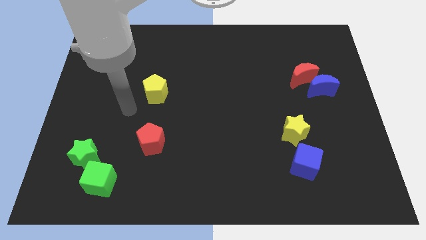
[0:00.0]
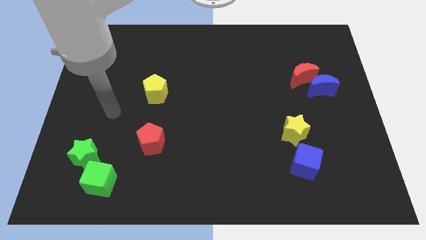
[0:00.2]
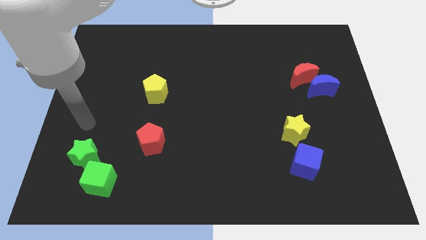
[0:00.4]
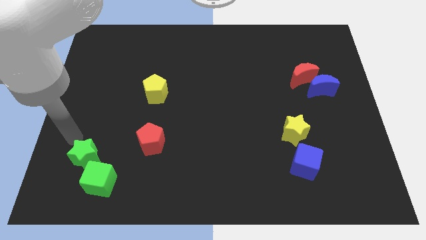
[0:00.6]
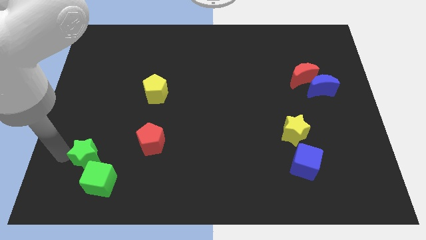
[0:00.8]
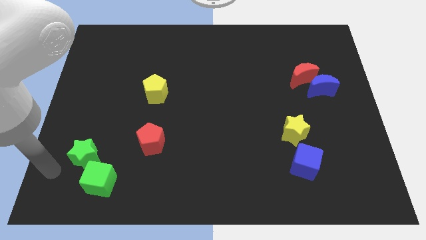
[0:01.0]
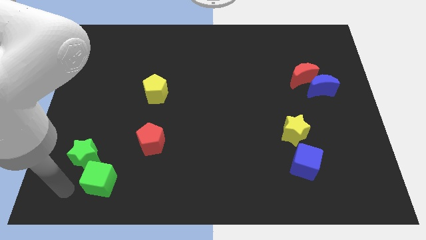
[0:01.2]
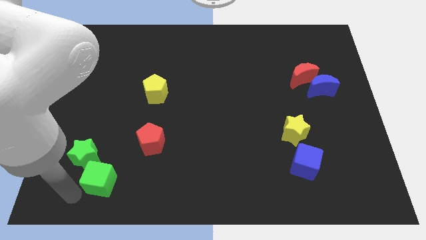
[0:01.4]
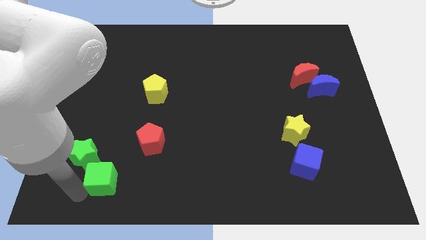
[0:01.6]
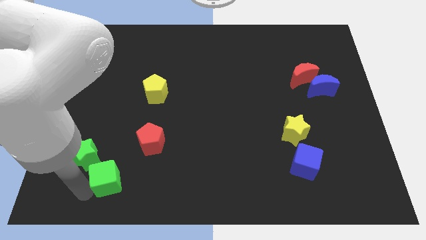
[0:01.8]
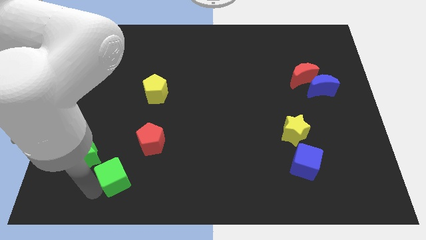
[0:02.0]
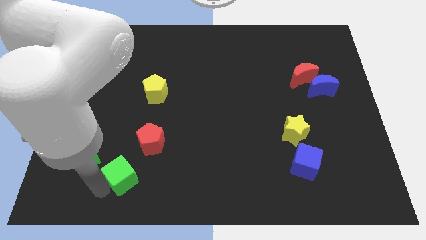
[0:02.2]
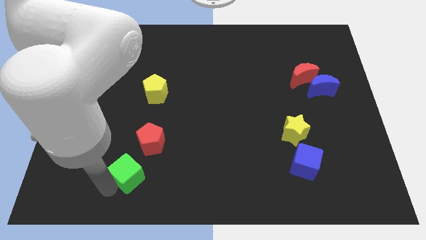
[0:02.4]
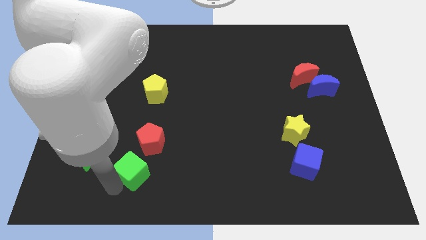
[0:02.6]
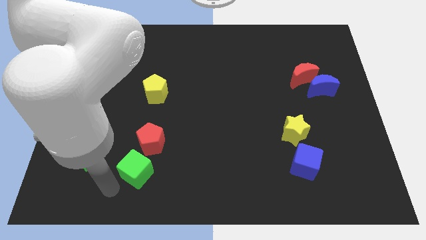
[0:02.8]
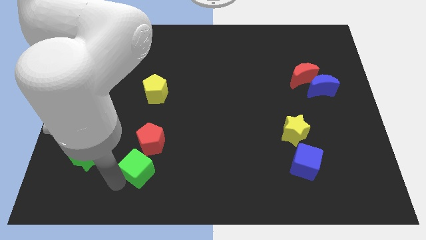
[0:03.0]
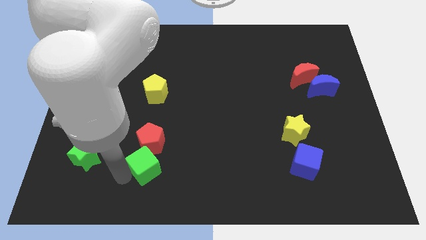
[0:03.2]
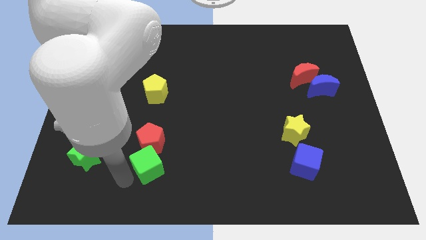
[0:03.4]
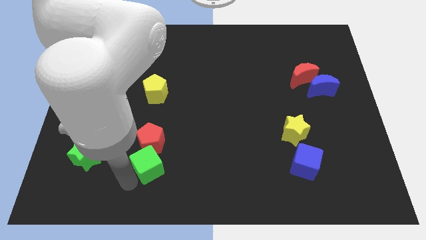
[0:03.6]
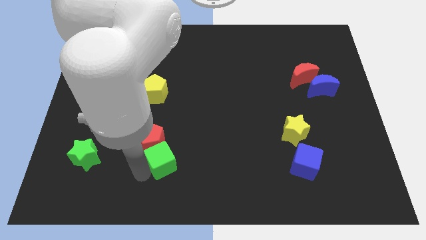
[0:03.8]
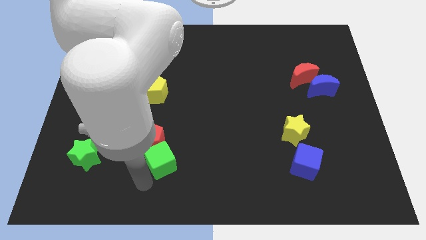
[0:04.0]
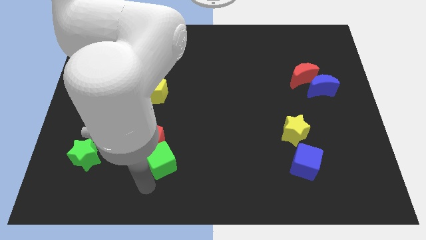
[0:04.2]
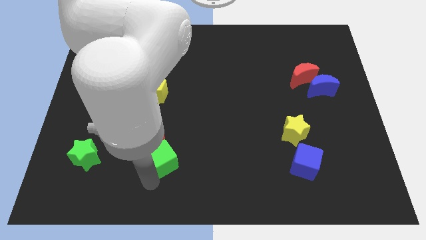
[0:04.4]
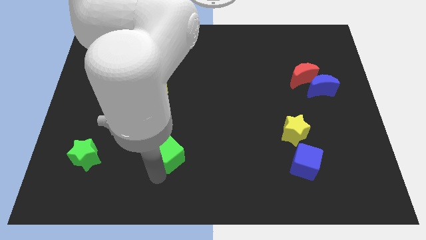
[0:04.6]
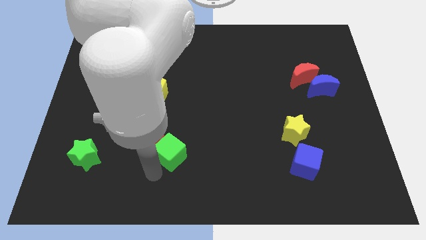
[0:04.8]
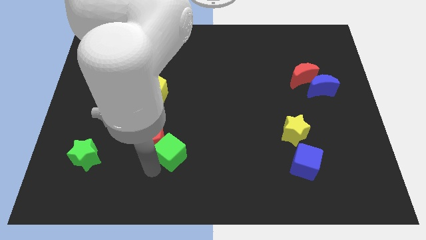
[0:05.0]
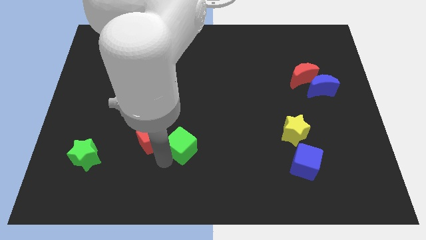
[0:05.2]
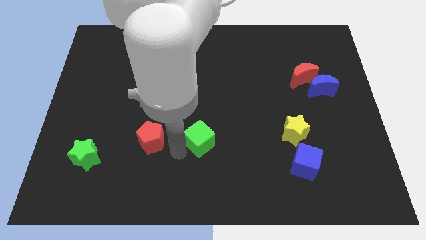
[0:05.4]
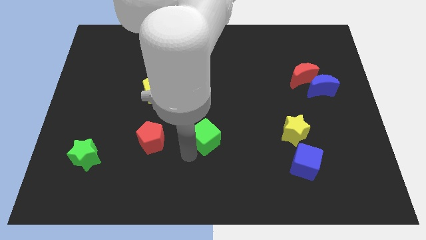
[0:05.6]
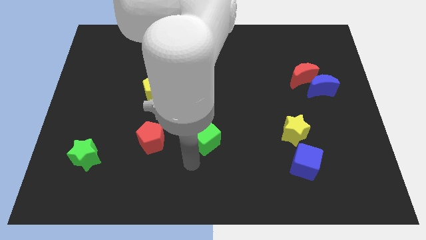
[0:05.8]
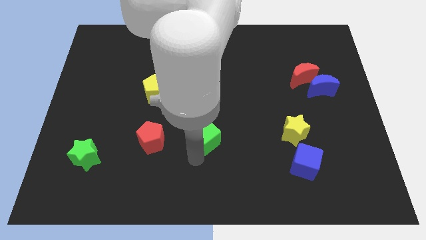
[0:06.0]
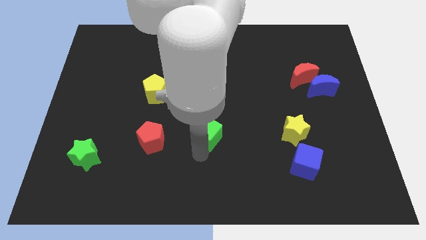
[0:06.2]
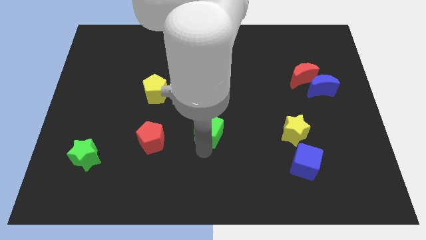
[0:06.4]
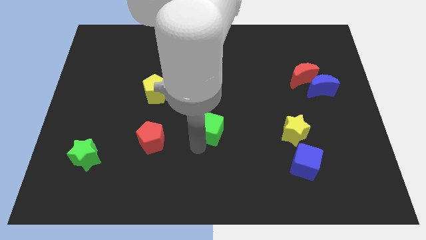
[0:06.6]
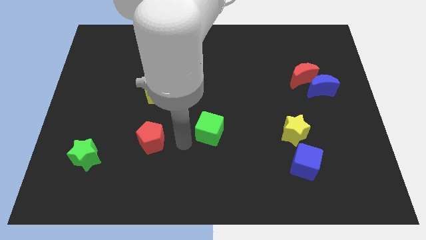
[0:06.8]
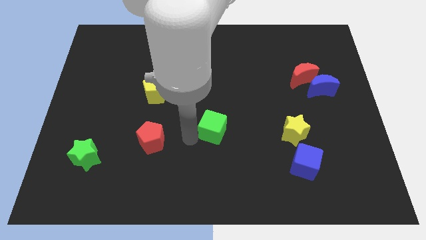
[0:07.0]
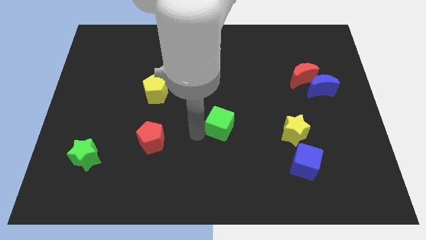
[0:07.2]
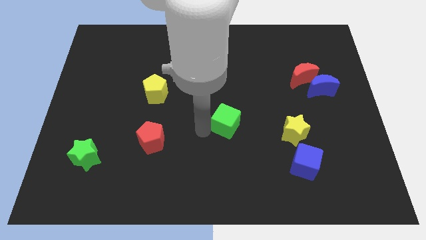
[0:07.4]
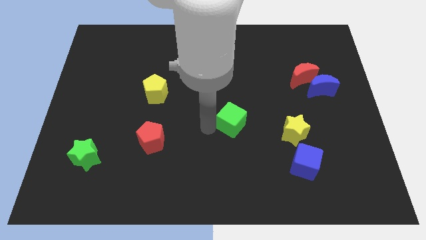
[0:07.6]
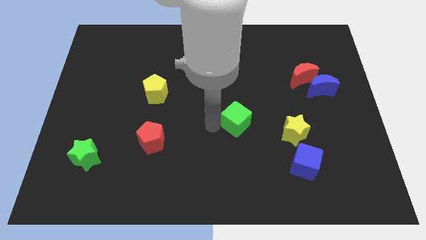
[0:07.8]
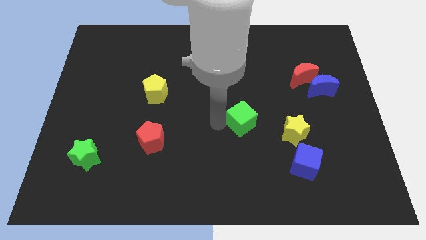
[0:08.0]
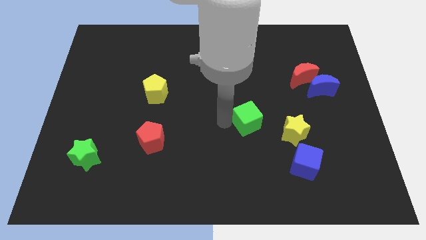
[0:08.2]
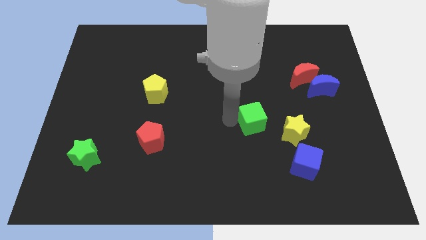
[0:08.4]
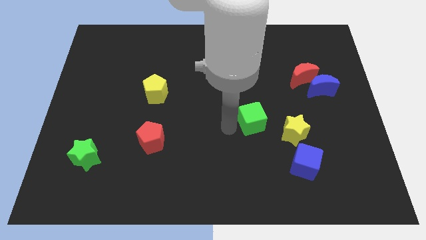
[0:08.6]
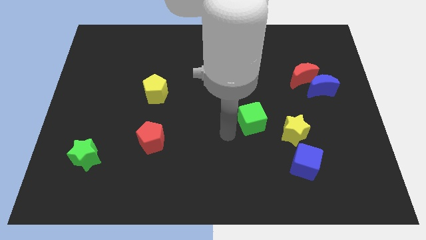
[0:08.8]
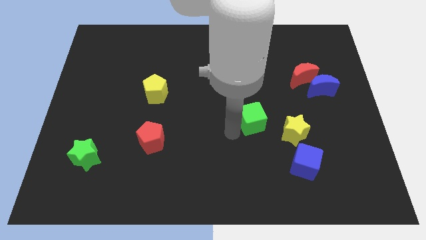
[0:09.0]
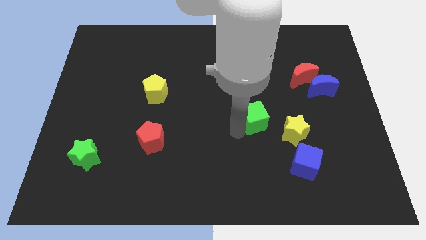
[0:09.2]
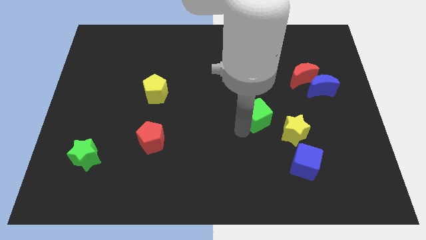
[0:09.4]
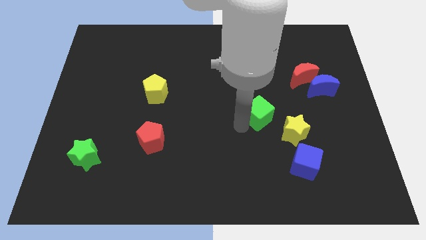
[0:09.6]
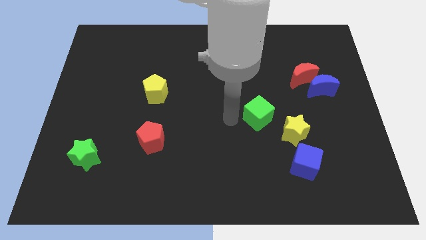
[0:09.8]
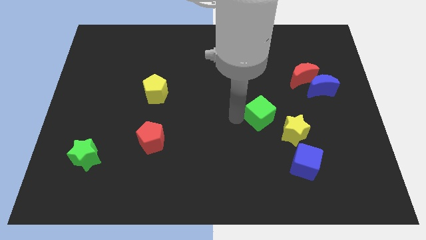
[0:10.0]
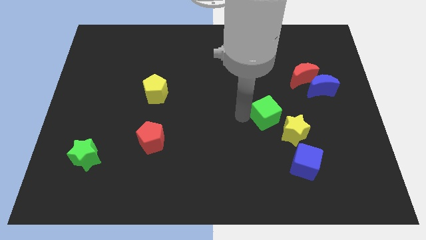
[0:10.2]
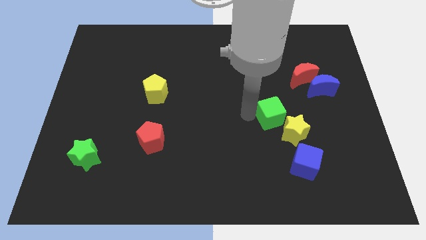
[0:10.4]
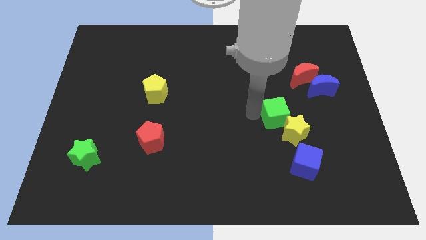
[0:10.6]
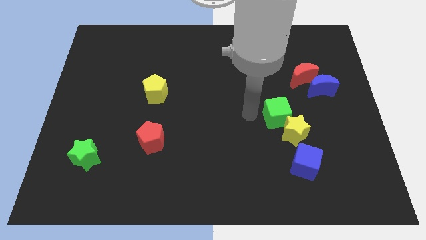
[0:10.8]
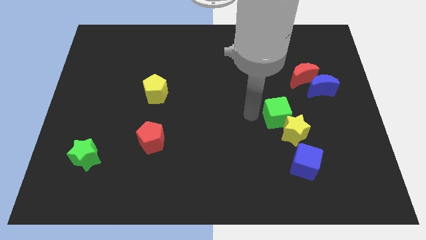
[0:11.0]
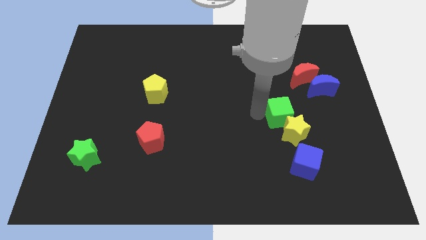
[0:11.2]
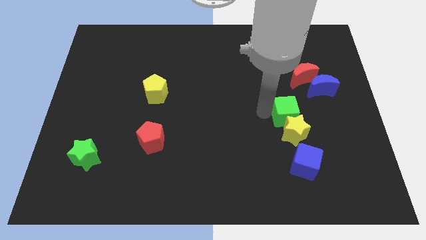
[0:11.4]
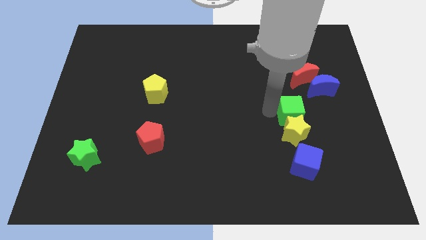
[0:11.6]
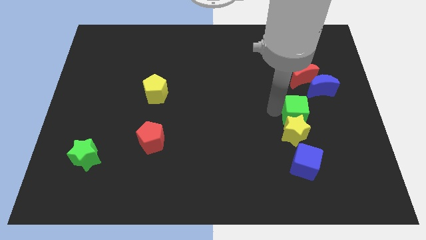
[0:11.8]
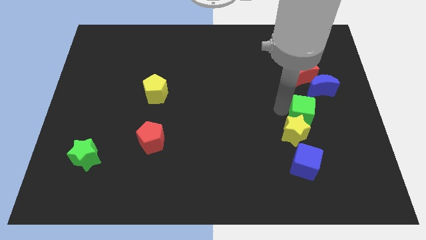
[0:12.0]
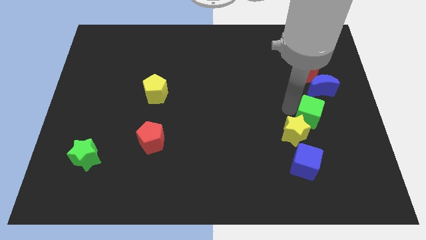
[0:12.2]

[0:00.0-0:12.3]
move the green cube to the right side of the yellow star
